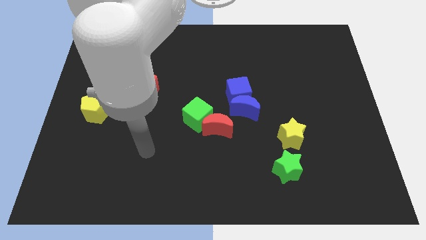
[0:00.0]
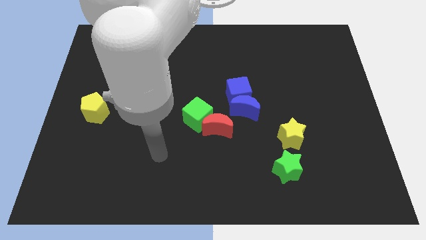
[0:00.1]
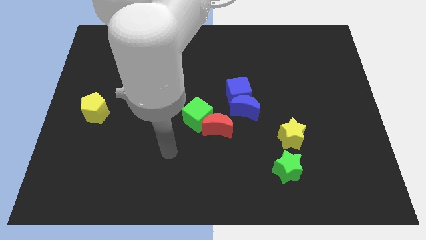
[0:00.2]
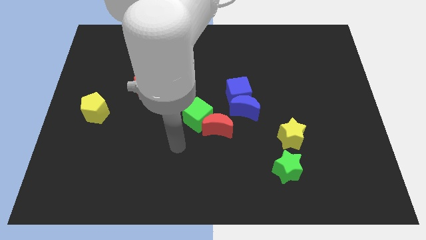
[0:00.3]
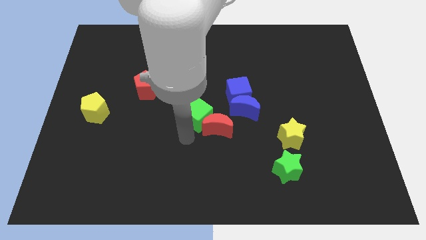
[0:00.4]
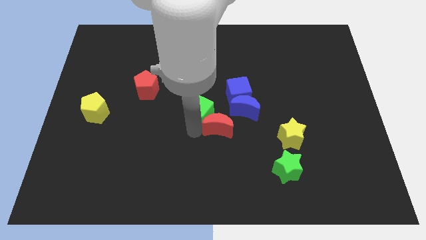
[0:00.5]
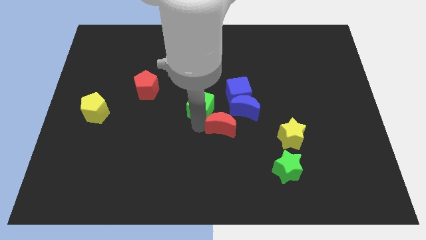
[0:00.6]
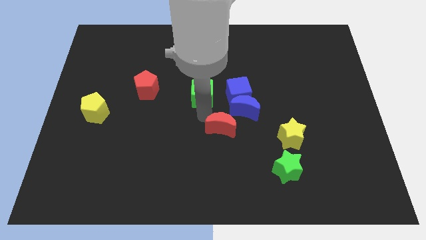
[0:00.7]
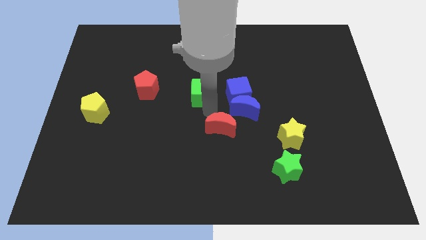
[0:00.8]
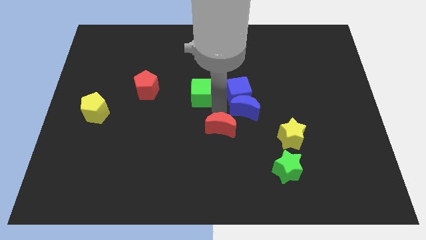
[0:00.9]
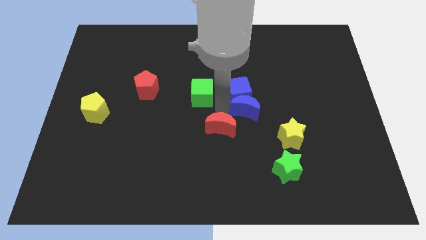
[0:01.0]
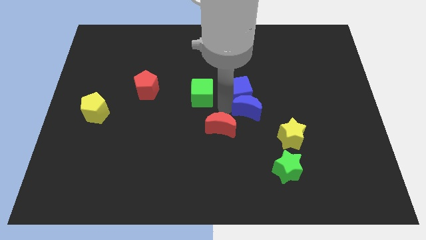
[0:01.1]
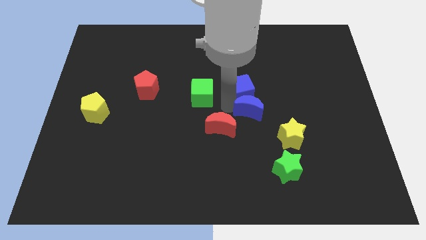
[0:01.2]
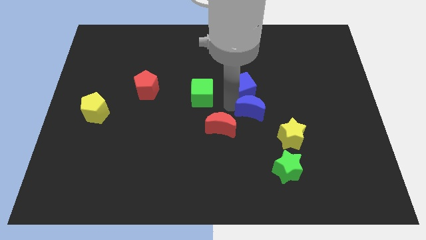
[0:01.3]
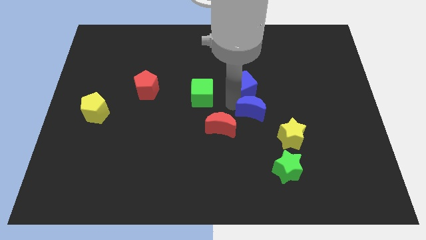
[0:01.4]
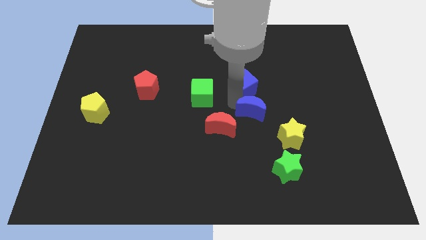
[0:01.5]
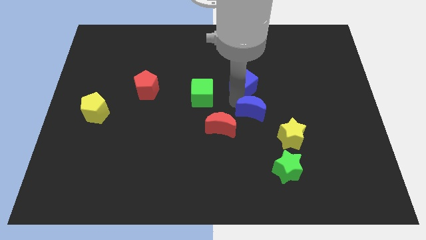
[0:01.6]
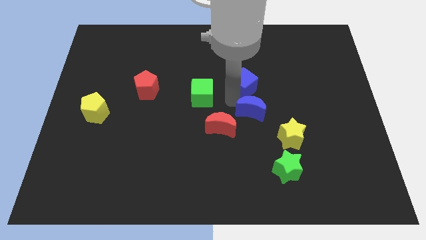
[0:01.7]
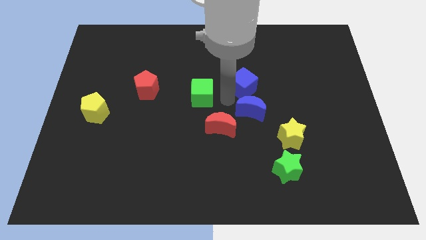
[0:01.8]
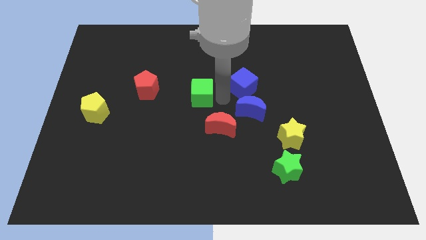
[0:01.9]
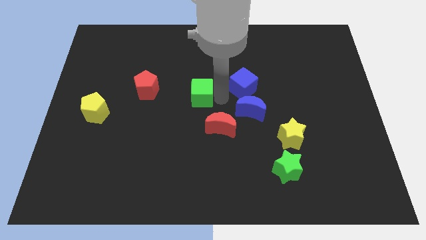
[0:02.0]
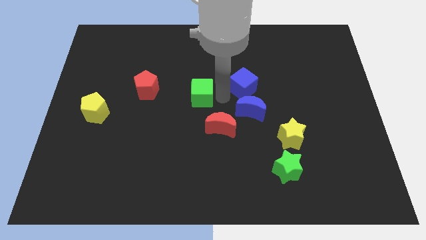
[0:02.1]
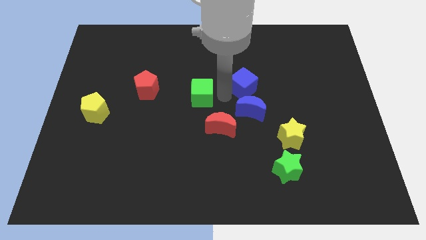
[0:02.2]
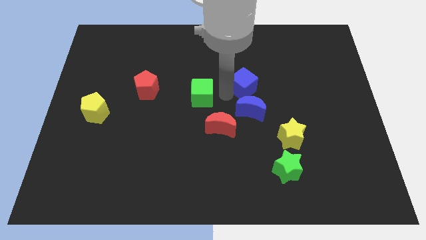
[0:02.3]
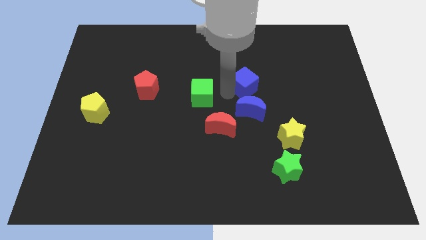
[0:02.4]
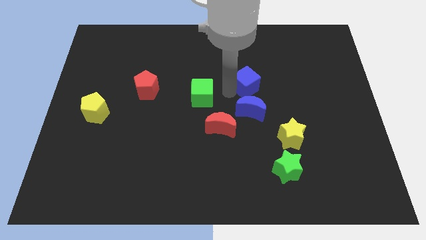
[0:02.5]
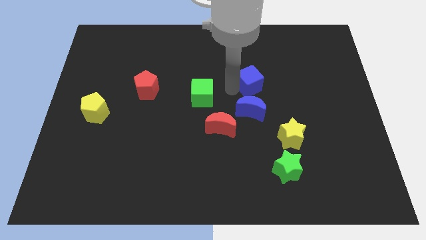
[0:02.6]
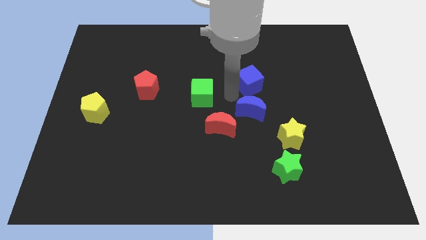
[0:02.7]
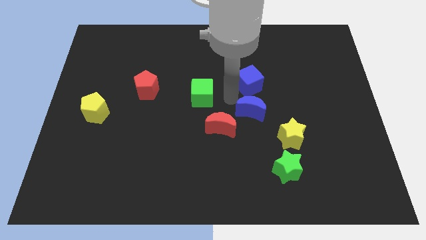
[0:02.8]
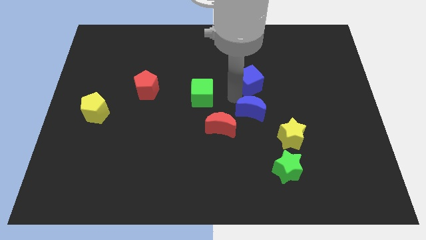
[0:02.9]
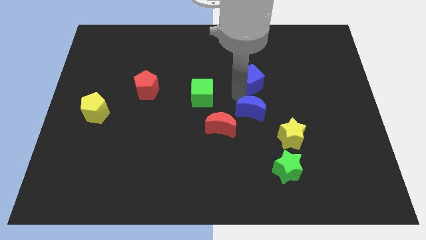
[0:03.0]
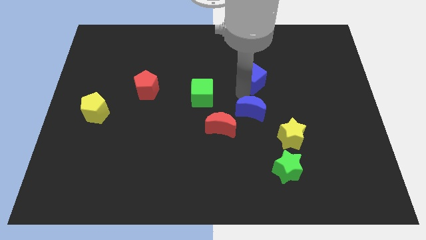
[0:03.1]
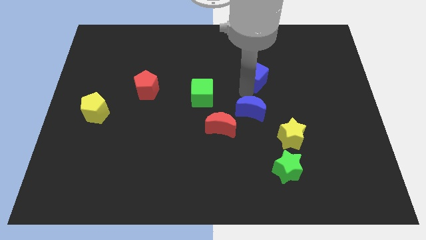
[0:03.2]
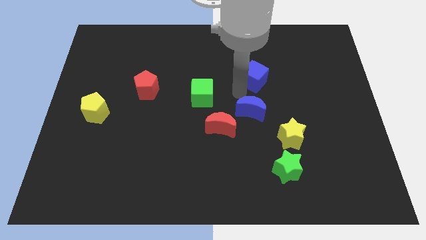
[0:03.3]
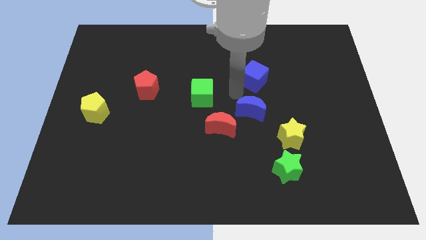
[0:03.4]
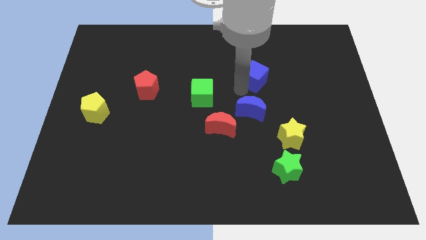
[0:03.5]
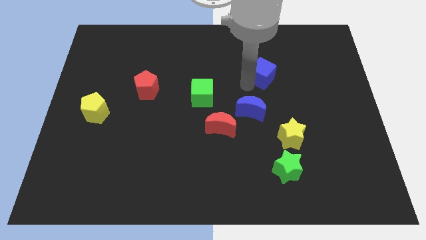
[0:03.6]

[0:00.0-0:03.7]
slightly move the blue cube upwards and right diagonally

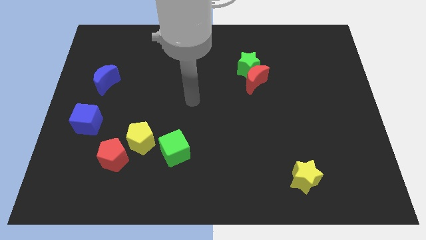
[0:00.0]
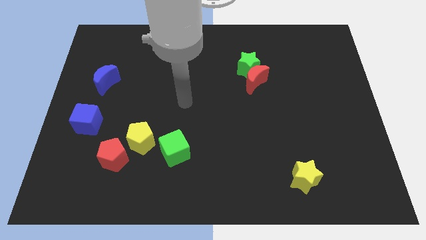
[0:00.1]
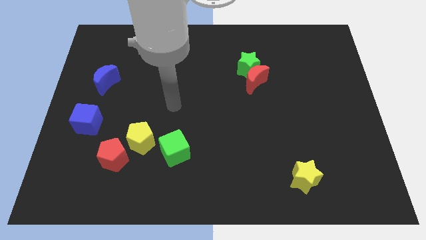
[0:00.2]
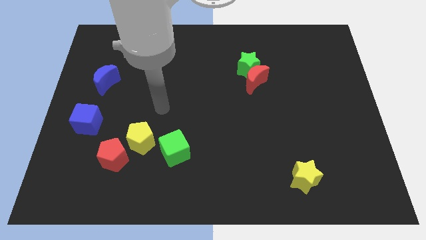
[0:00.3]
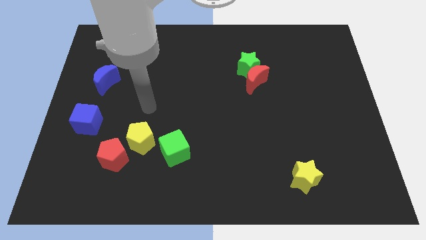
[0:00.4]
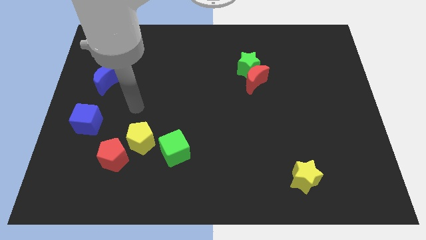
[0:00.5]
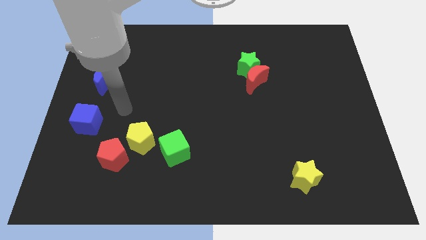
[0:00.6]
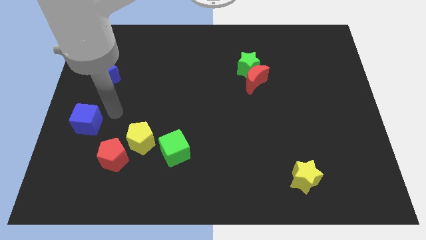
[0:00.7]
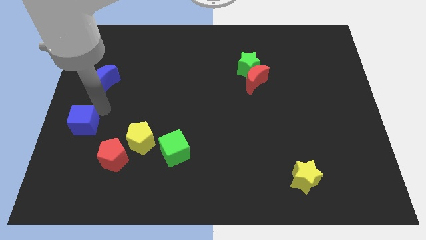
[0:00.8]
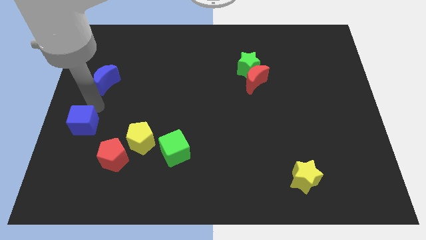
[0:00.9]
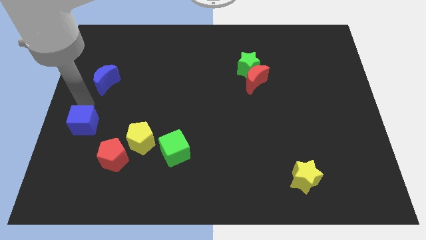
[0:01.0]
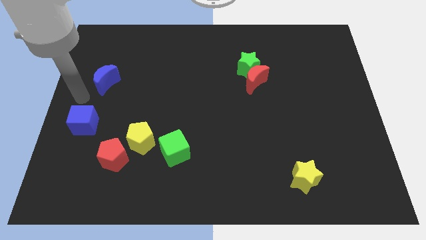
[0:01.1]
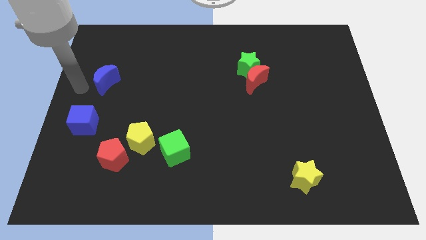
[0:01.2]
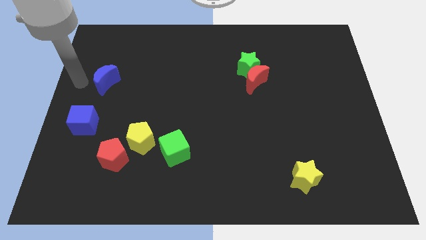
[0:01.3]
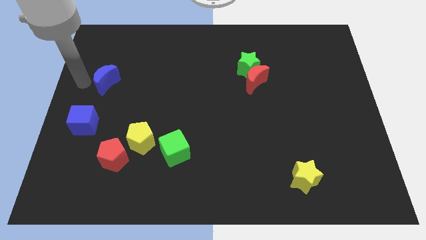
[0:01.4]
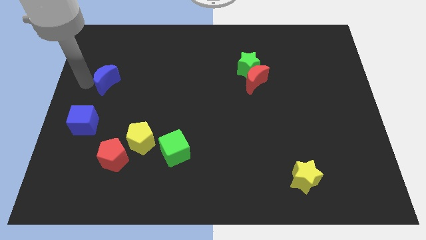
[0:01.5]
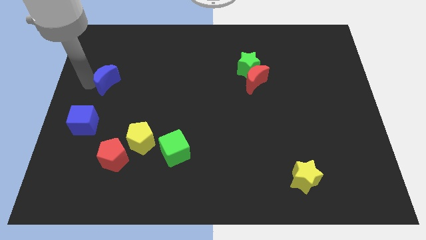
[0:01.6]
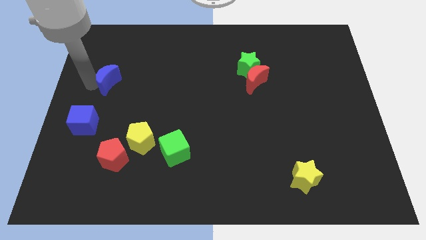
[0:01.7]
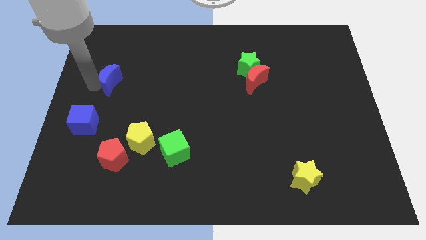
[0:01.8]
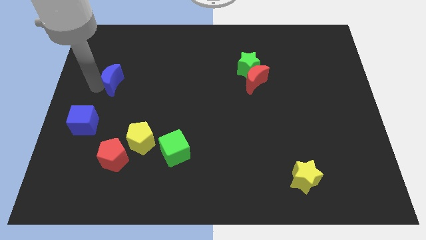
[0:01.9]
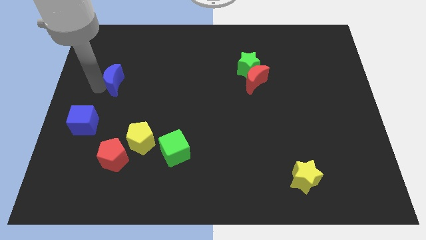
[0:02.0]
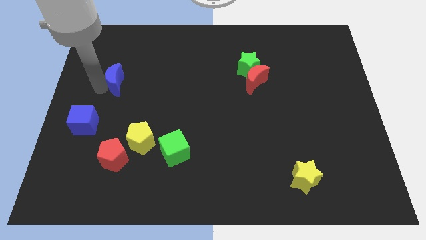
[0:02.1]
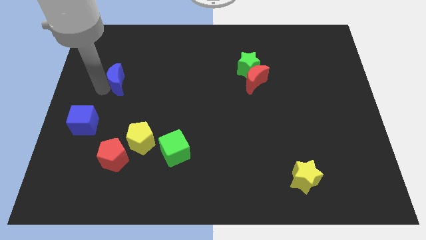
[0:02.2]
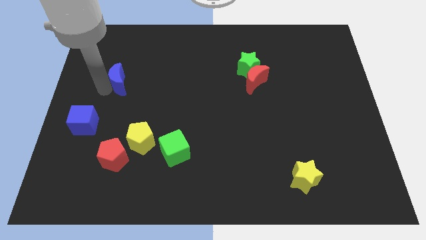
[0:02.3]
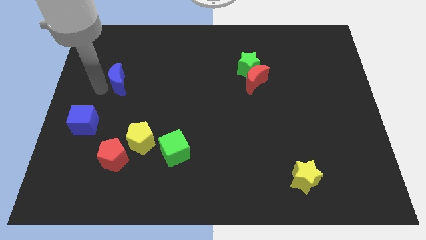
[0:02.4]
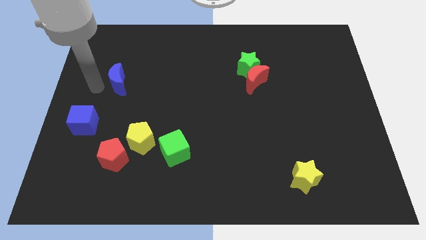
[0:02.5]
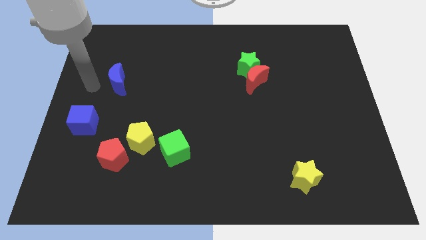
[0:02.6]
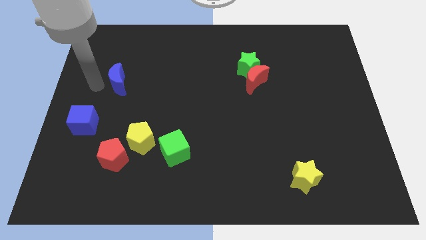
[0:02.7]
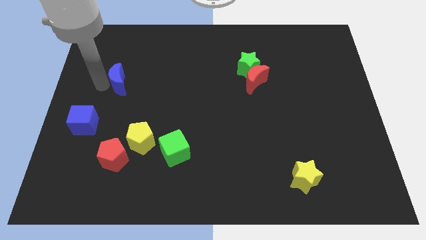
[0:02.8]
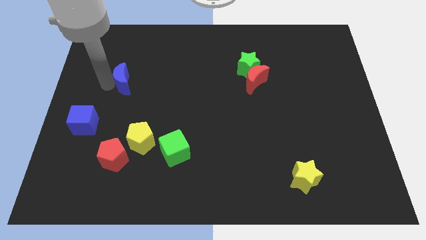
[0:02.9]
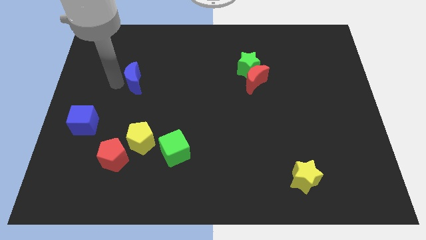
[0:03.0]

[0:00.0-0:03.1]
slightly slide the blue moon right

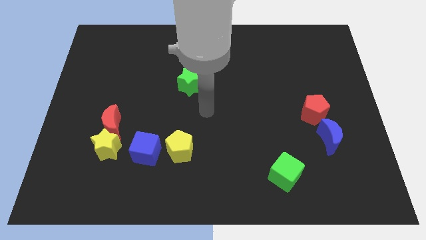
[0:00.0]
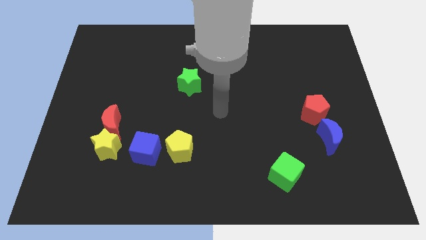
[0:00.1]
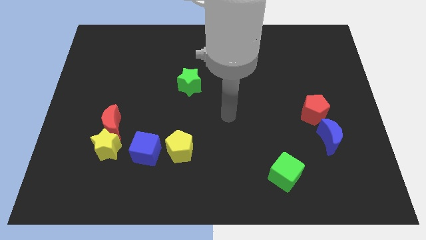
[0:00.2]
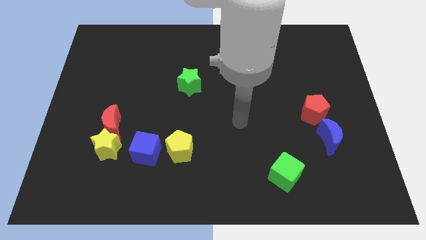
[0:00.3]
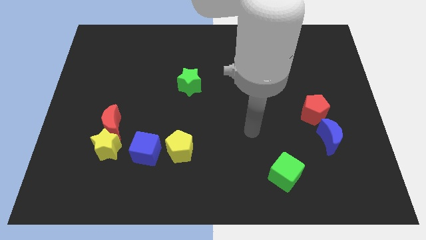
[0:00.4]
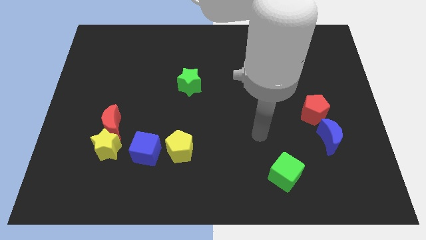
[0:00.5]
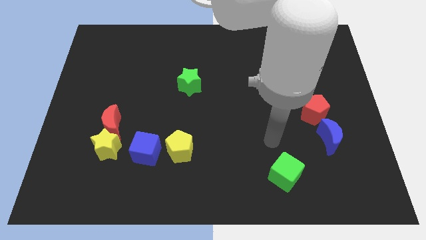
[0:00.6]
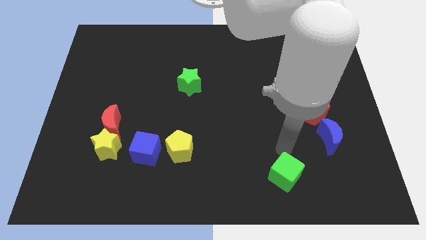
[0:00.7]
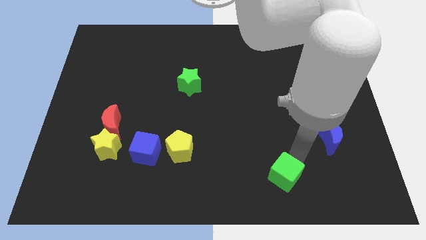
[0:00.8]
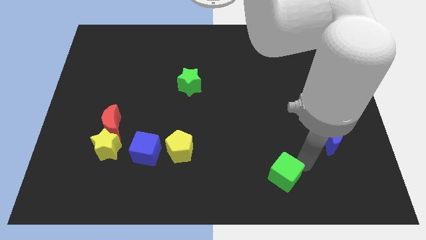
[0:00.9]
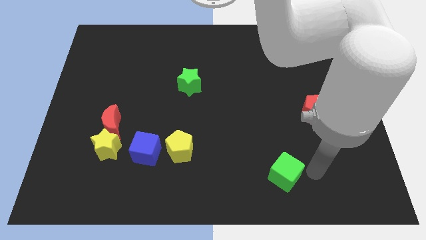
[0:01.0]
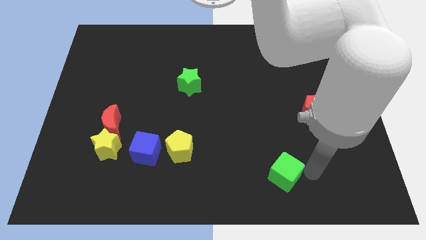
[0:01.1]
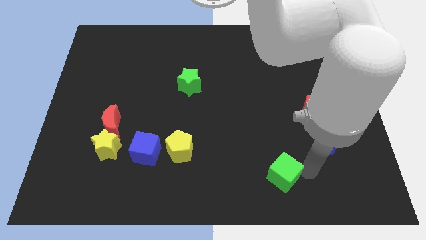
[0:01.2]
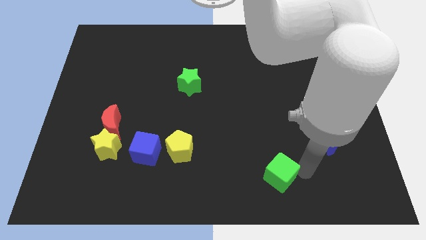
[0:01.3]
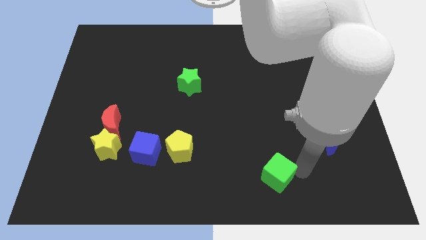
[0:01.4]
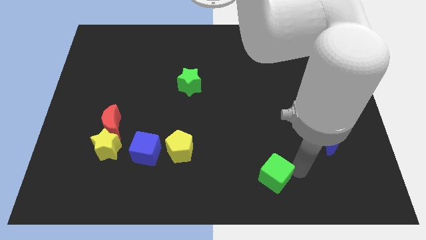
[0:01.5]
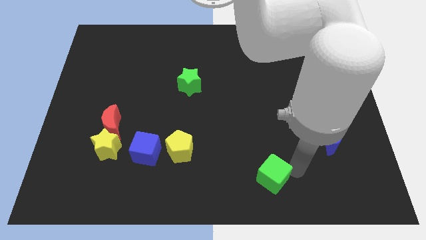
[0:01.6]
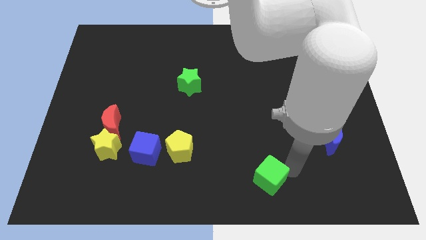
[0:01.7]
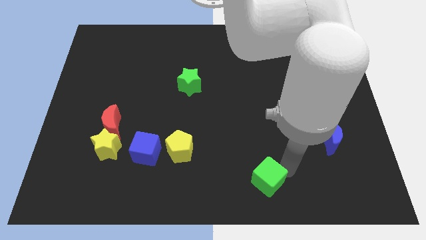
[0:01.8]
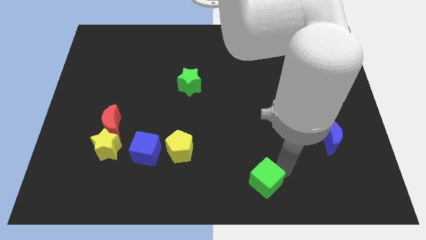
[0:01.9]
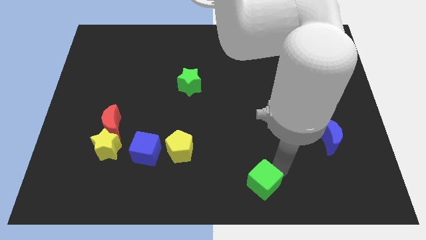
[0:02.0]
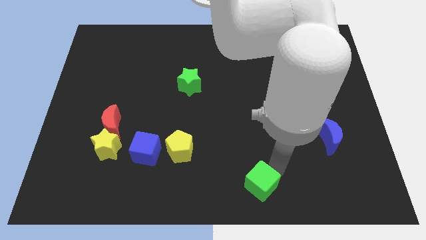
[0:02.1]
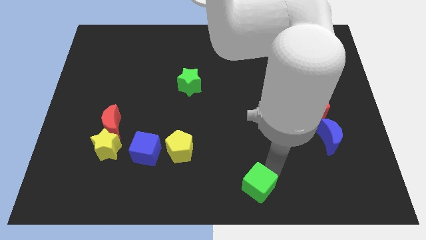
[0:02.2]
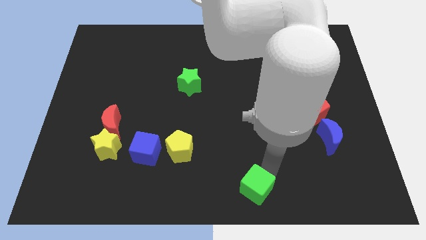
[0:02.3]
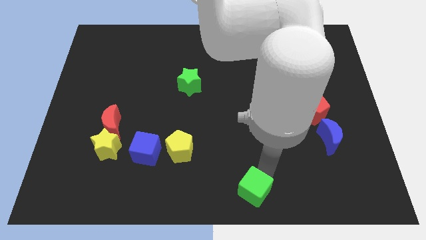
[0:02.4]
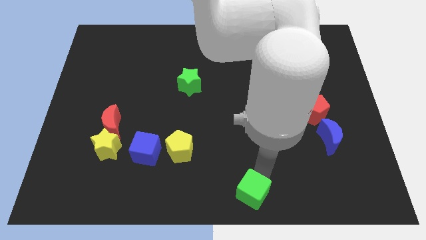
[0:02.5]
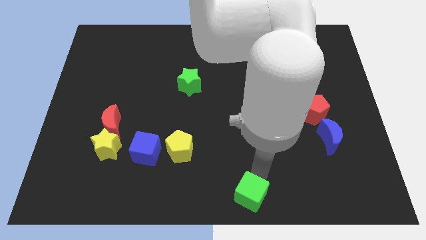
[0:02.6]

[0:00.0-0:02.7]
slightly slide the green cube left
